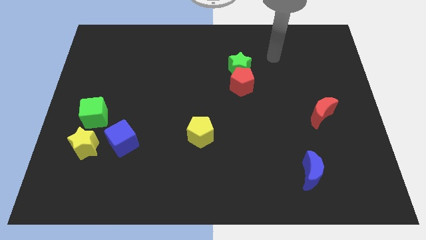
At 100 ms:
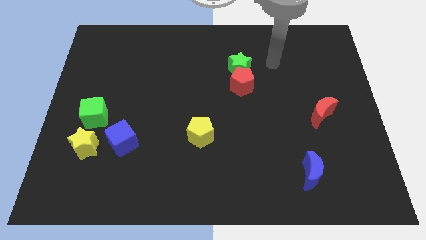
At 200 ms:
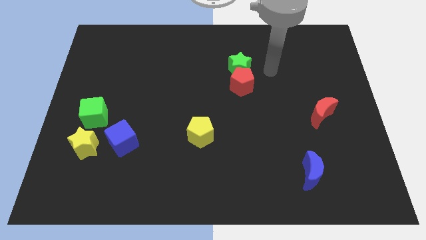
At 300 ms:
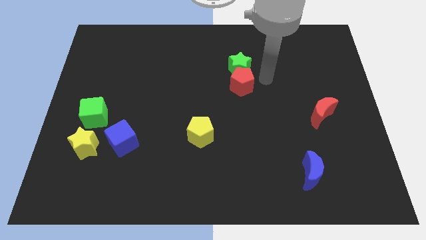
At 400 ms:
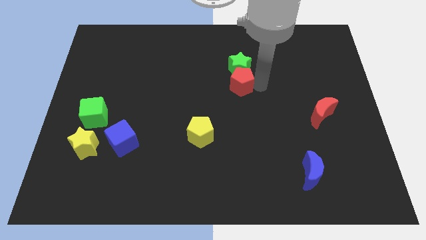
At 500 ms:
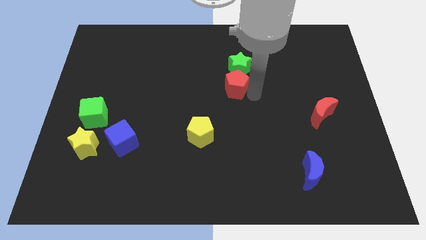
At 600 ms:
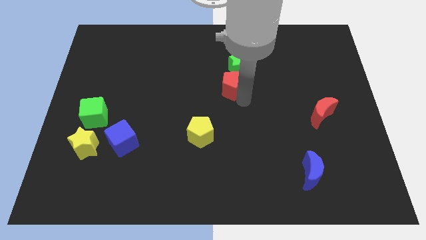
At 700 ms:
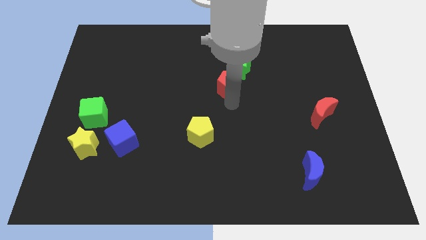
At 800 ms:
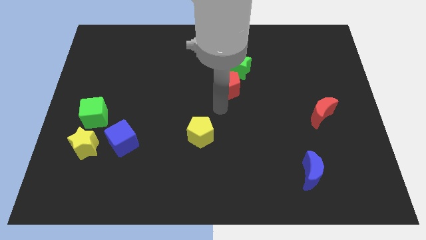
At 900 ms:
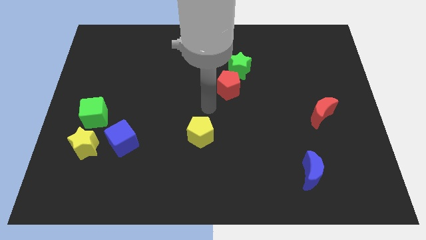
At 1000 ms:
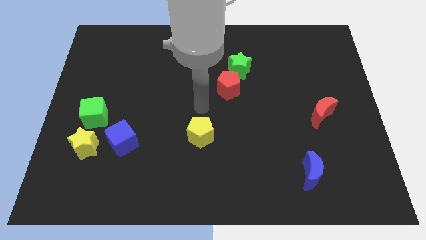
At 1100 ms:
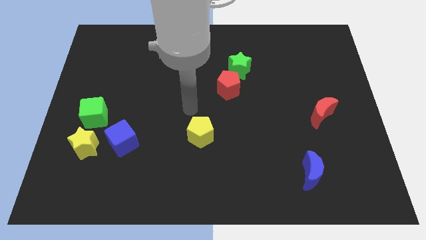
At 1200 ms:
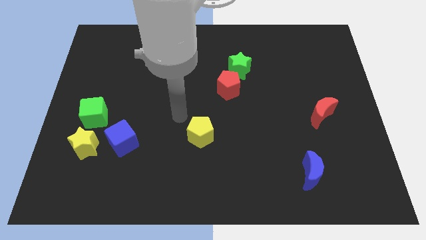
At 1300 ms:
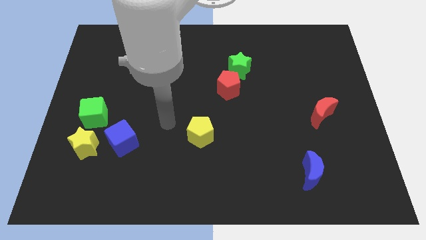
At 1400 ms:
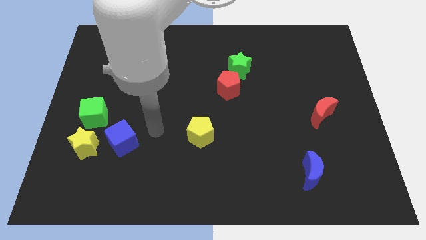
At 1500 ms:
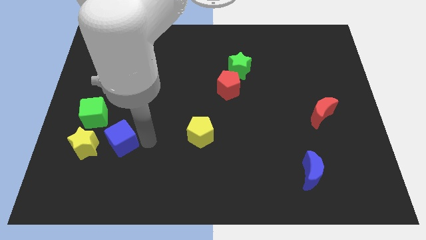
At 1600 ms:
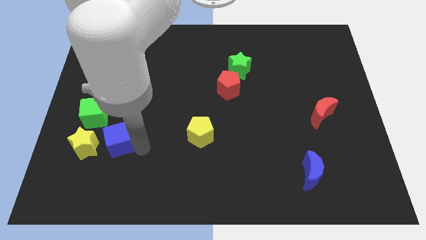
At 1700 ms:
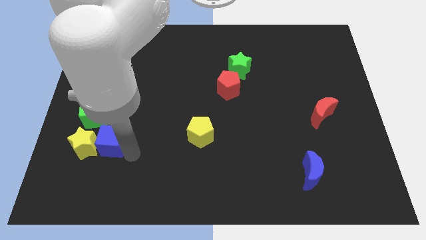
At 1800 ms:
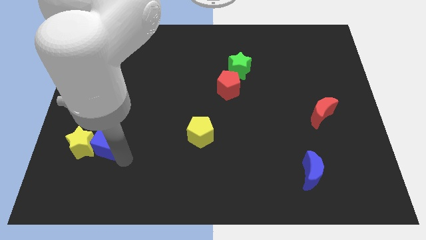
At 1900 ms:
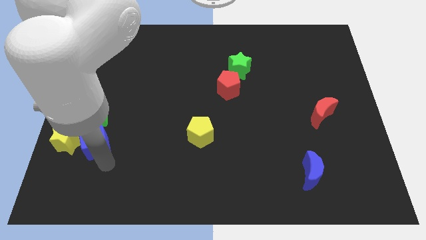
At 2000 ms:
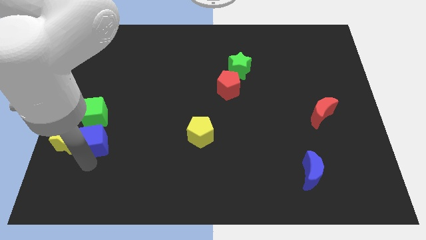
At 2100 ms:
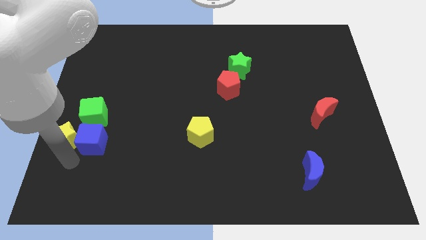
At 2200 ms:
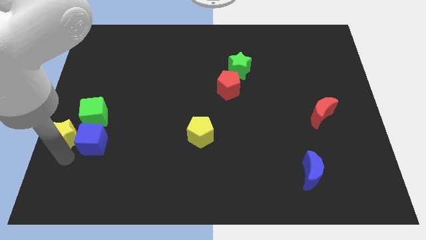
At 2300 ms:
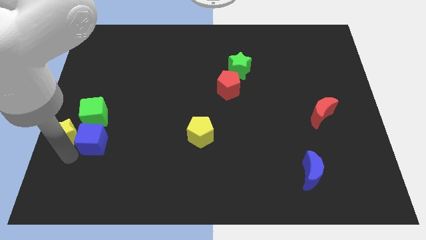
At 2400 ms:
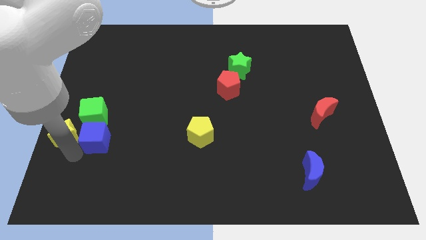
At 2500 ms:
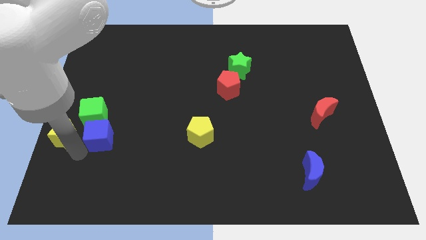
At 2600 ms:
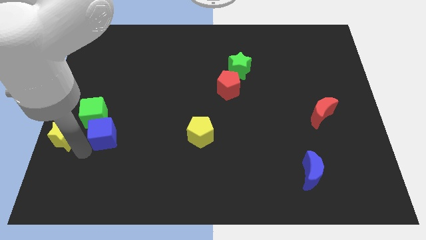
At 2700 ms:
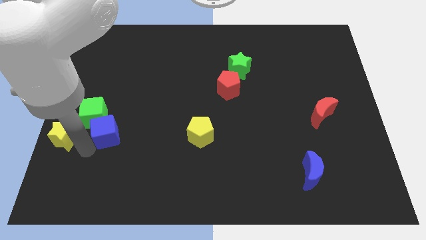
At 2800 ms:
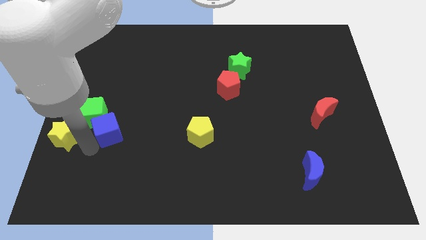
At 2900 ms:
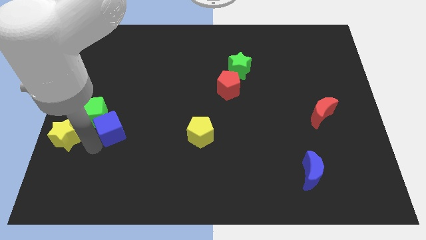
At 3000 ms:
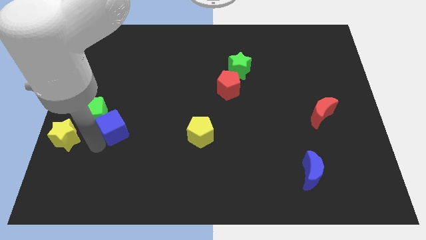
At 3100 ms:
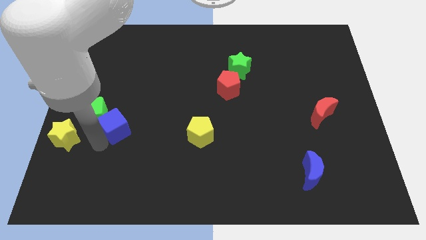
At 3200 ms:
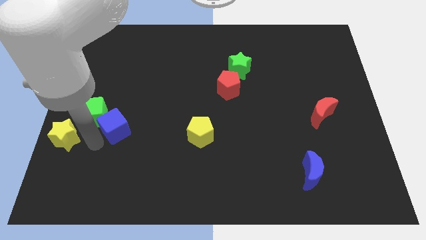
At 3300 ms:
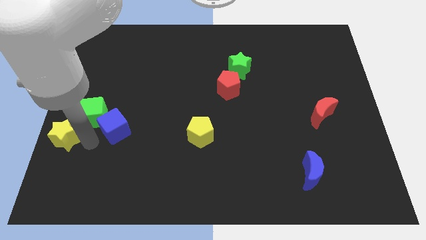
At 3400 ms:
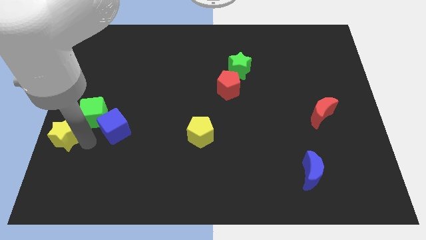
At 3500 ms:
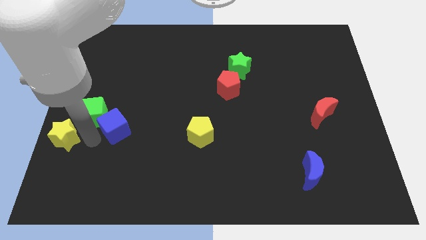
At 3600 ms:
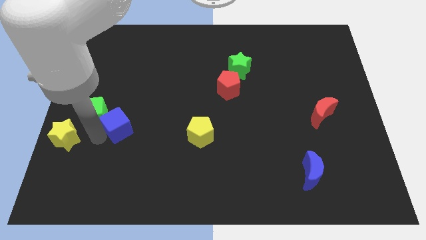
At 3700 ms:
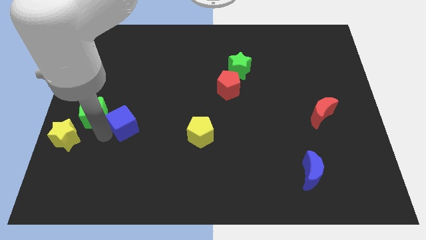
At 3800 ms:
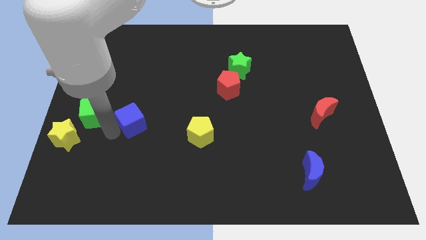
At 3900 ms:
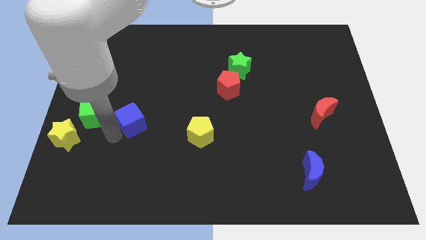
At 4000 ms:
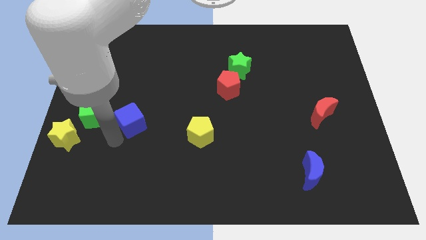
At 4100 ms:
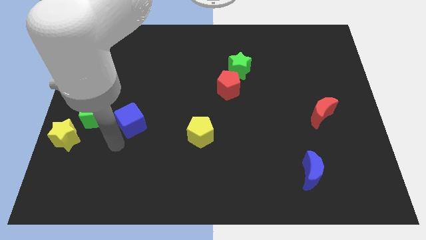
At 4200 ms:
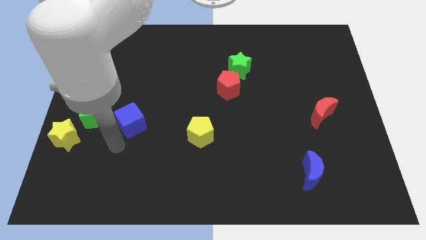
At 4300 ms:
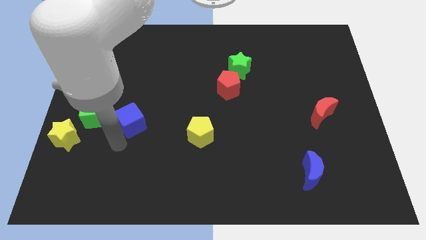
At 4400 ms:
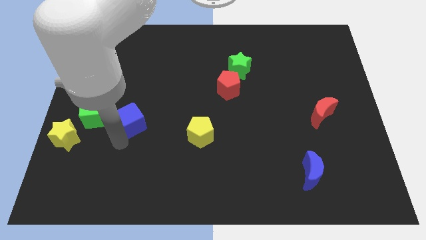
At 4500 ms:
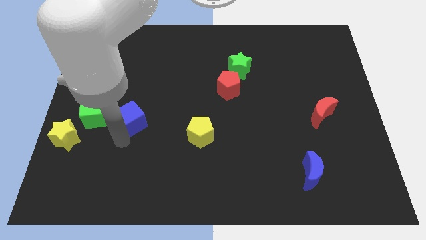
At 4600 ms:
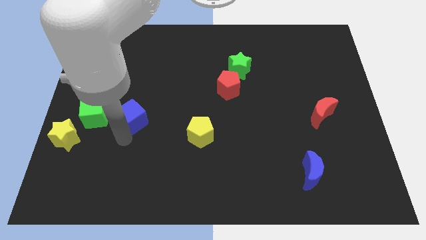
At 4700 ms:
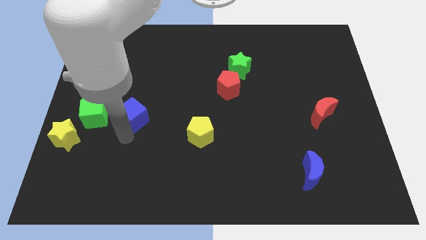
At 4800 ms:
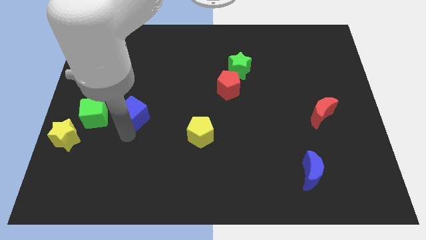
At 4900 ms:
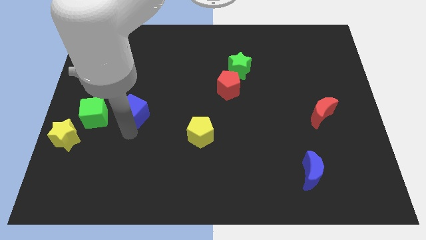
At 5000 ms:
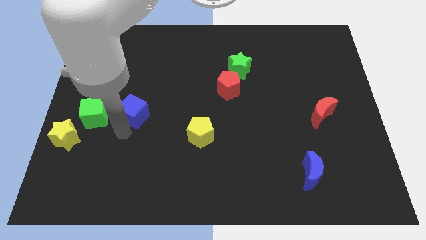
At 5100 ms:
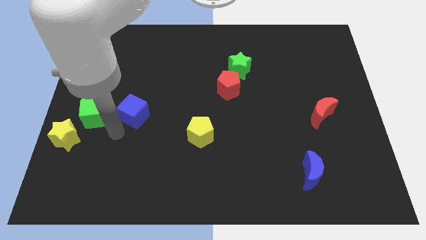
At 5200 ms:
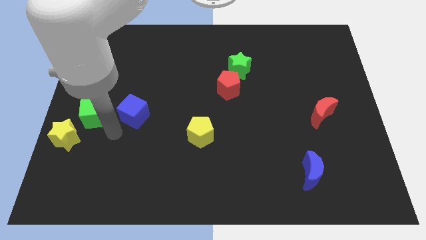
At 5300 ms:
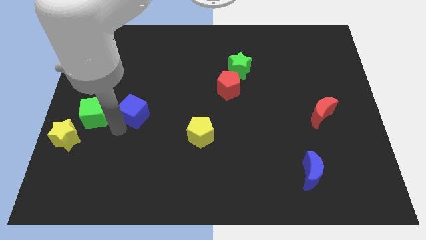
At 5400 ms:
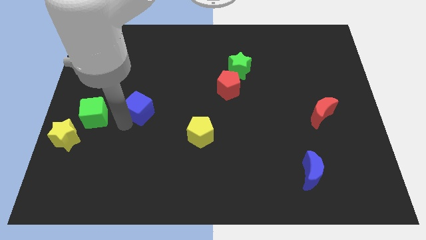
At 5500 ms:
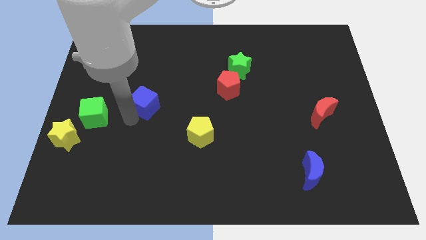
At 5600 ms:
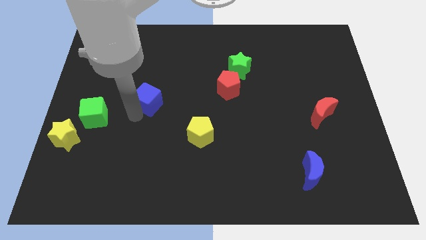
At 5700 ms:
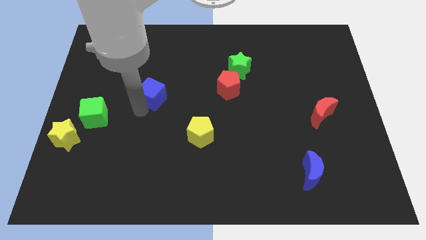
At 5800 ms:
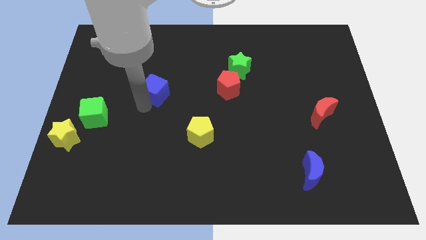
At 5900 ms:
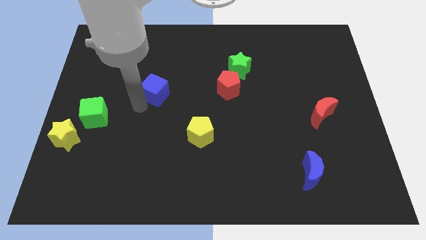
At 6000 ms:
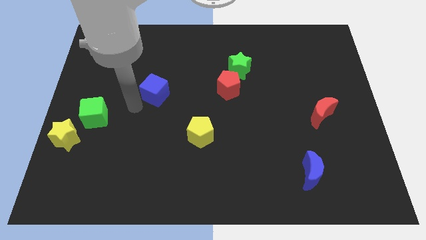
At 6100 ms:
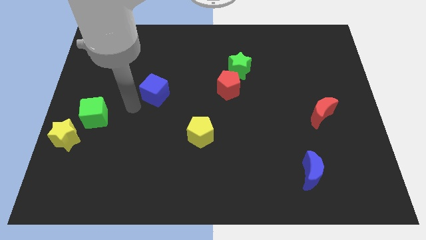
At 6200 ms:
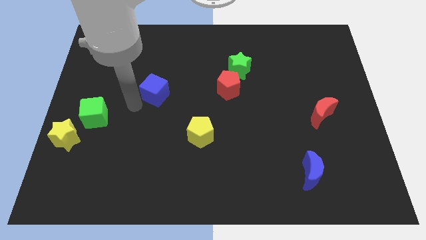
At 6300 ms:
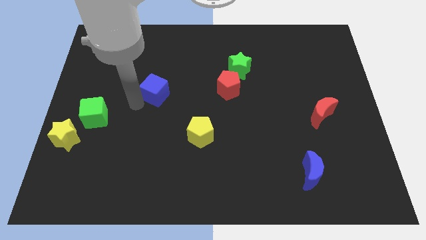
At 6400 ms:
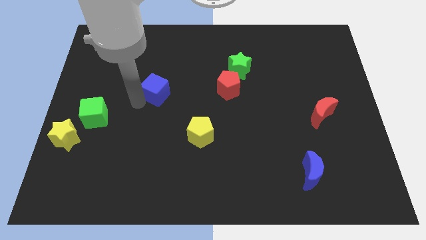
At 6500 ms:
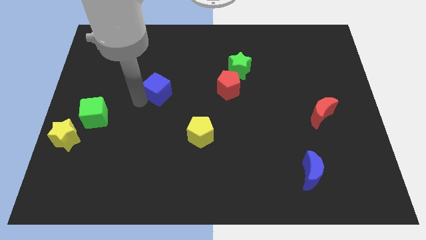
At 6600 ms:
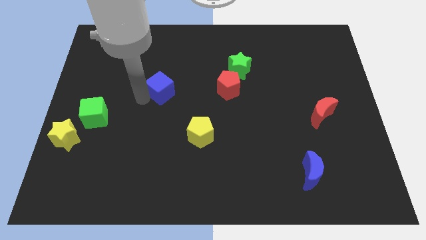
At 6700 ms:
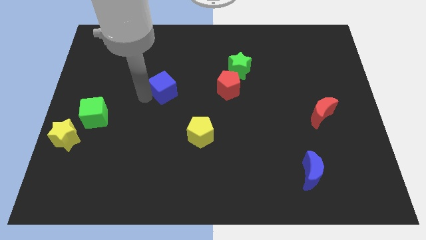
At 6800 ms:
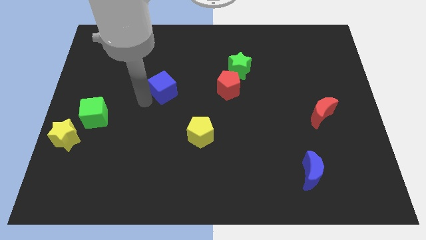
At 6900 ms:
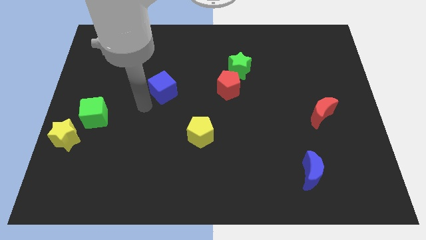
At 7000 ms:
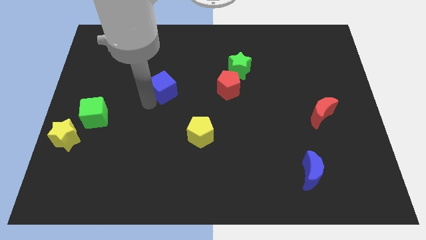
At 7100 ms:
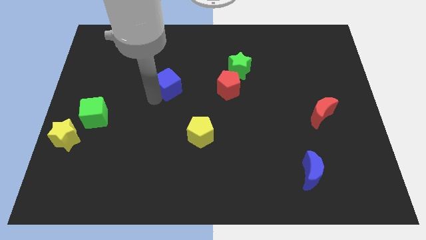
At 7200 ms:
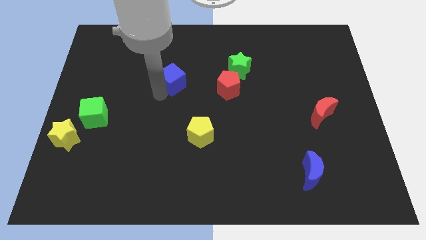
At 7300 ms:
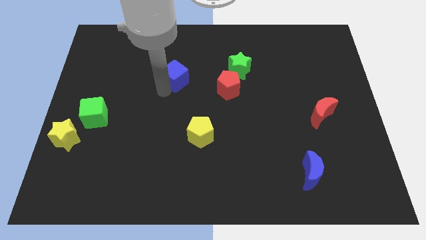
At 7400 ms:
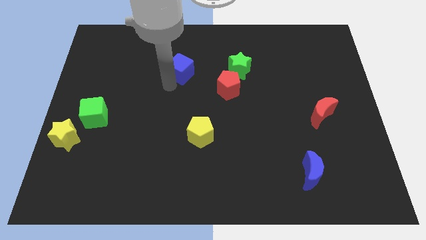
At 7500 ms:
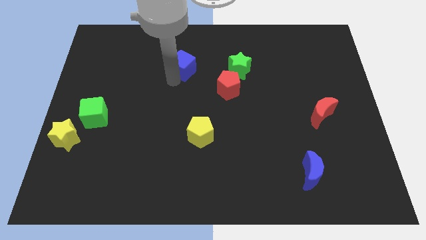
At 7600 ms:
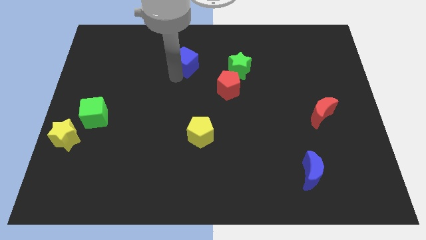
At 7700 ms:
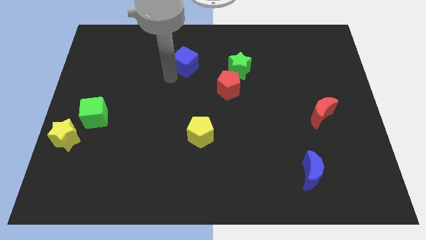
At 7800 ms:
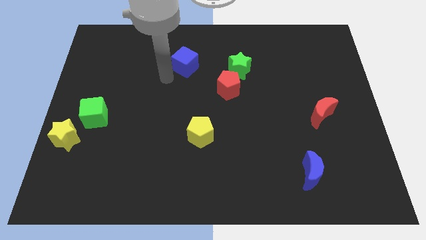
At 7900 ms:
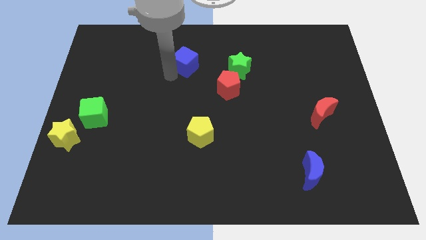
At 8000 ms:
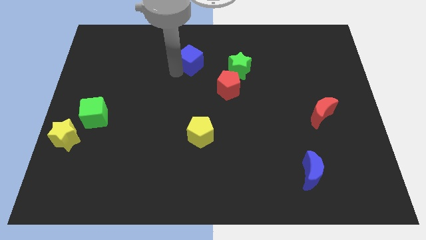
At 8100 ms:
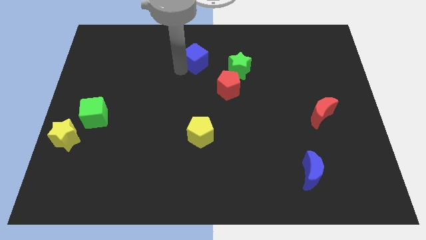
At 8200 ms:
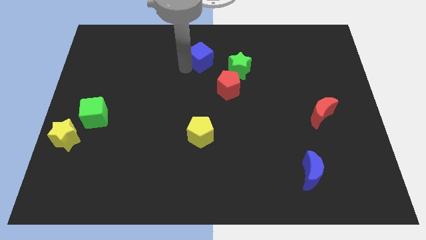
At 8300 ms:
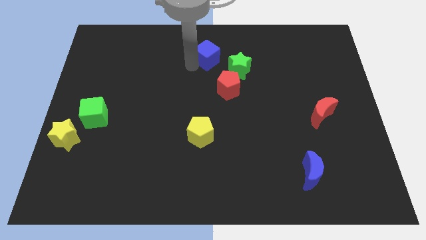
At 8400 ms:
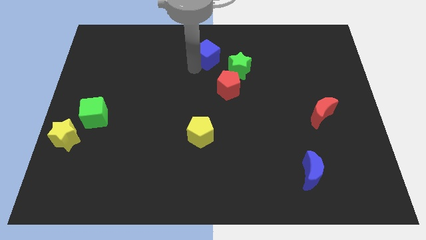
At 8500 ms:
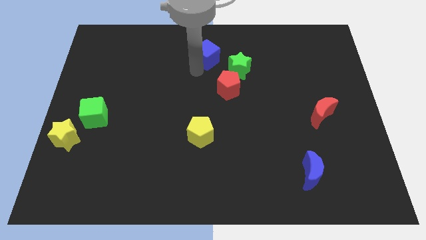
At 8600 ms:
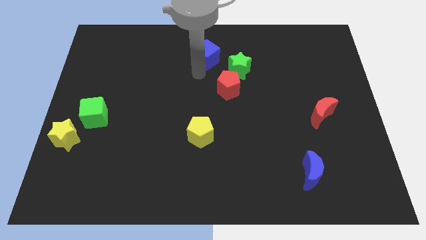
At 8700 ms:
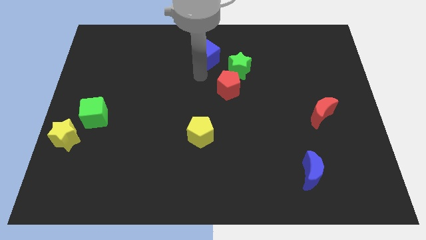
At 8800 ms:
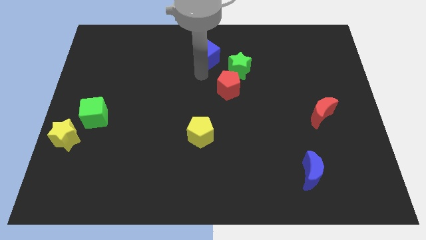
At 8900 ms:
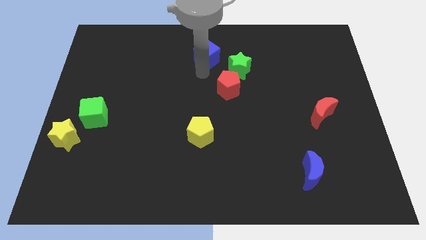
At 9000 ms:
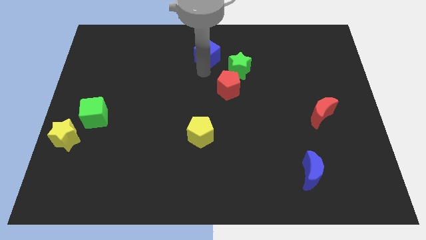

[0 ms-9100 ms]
move the blue cube to the top
